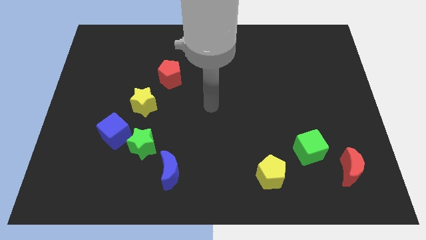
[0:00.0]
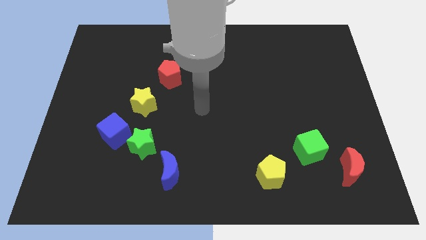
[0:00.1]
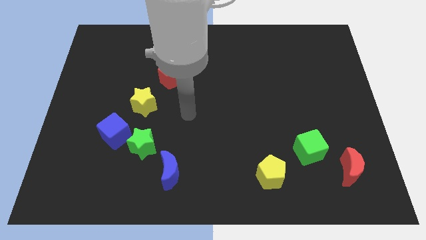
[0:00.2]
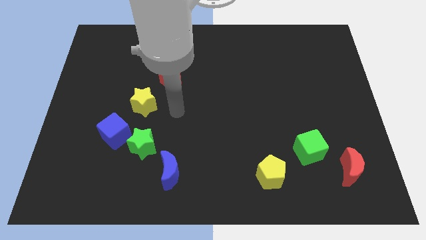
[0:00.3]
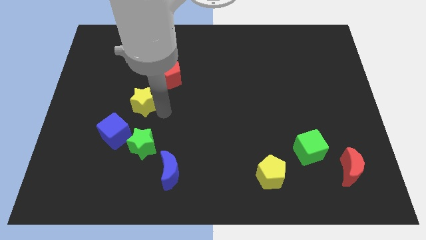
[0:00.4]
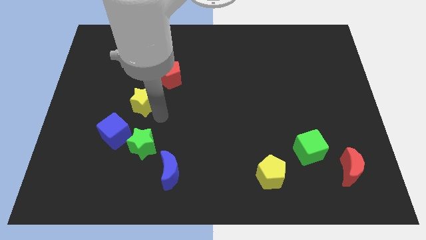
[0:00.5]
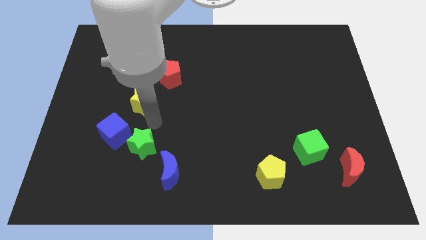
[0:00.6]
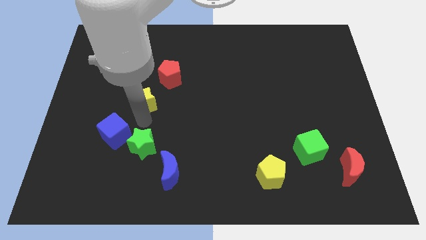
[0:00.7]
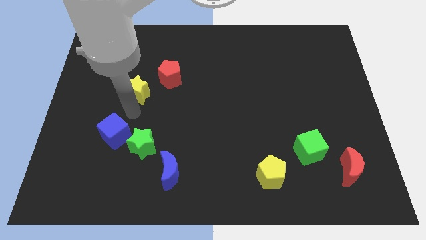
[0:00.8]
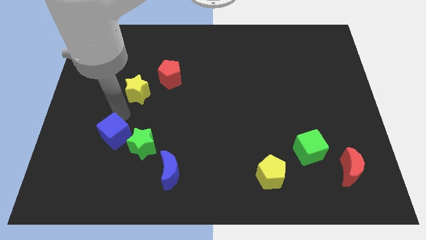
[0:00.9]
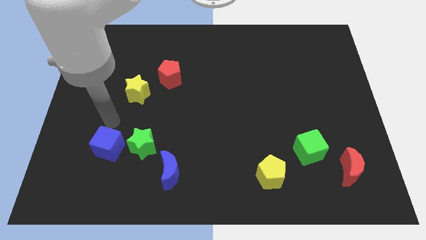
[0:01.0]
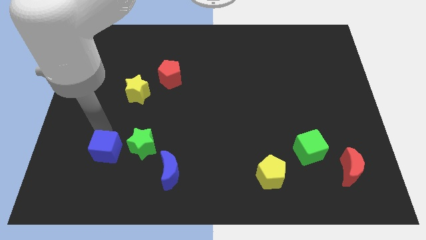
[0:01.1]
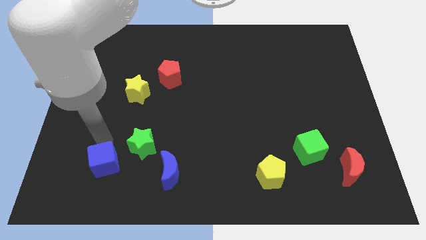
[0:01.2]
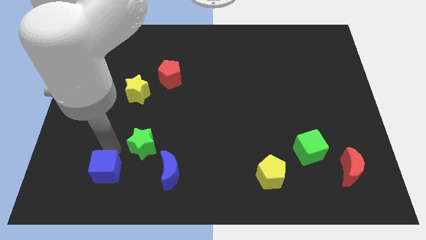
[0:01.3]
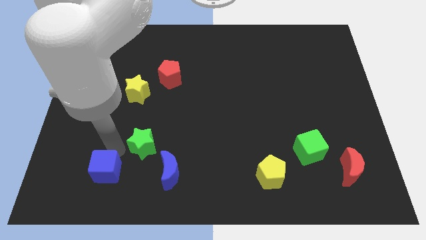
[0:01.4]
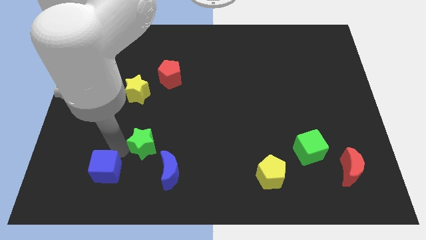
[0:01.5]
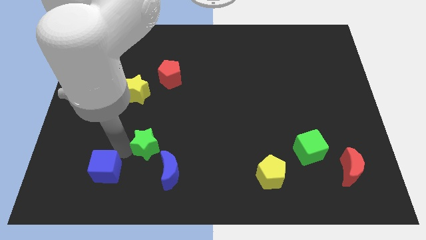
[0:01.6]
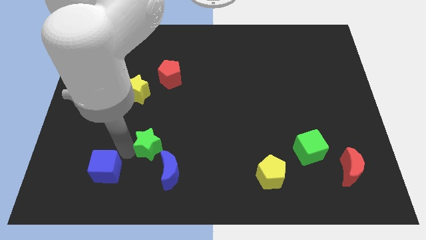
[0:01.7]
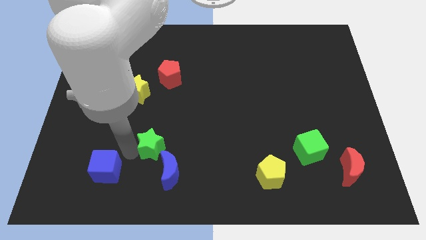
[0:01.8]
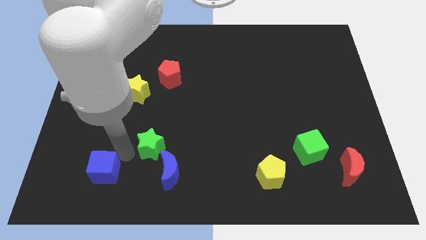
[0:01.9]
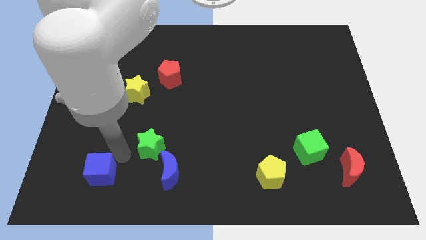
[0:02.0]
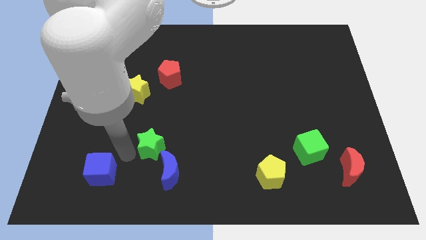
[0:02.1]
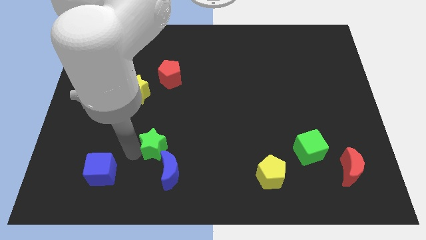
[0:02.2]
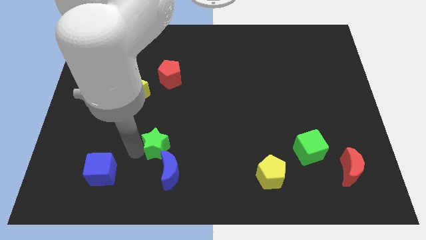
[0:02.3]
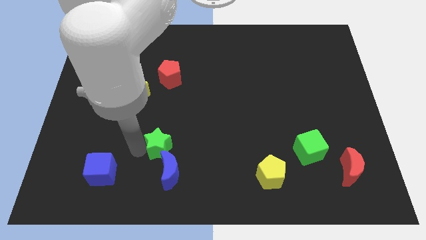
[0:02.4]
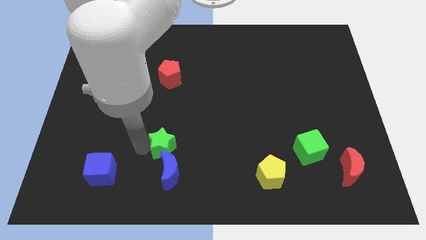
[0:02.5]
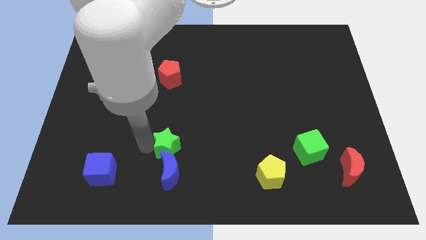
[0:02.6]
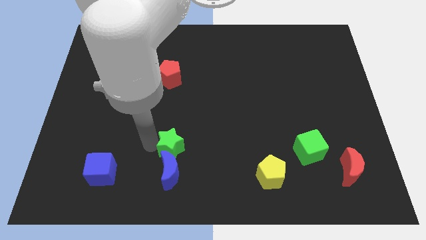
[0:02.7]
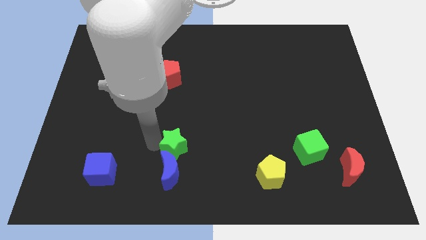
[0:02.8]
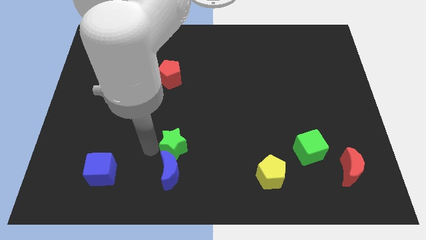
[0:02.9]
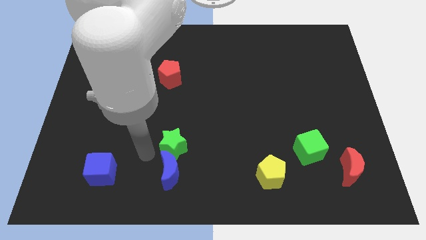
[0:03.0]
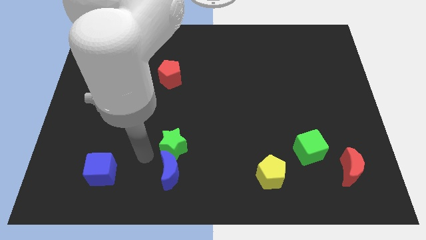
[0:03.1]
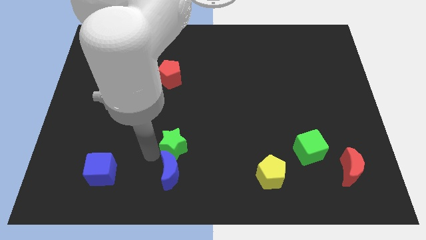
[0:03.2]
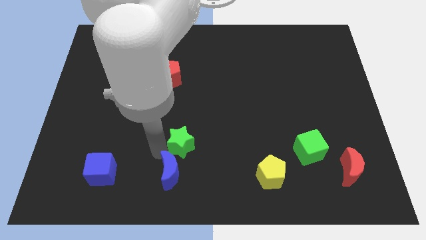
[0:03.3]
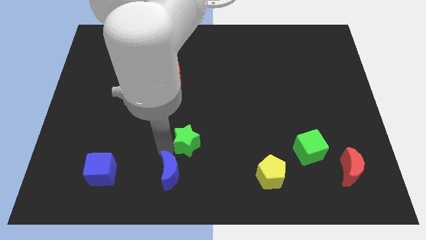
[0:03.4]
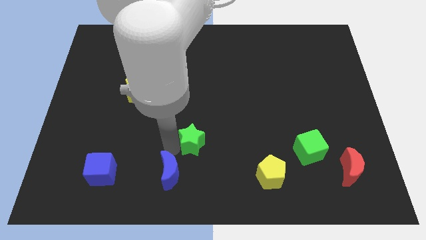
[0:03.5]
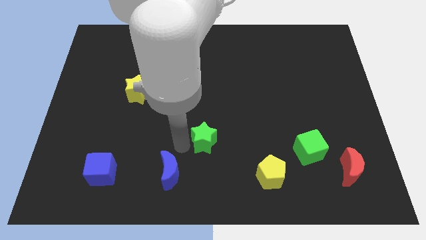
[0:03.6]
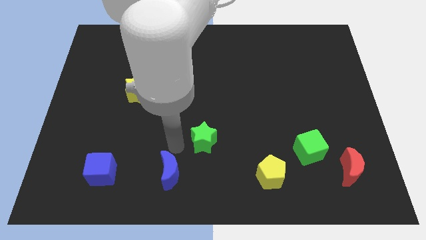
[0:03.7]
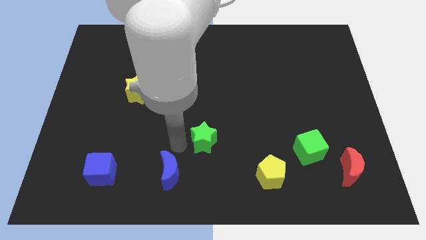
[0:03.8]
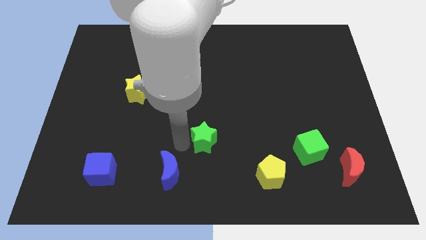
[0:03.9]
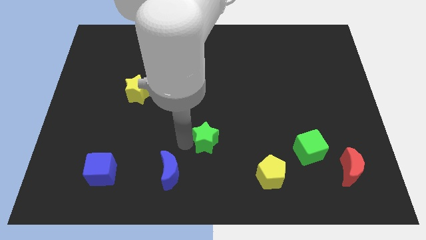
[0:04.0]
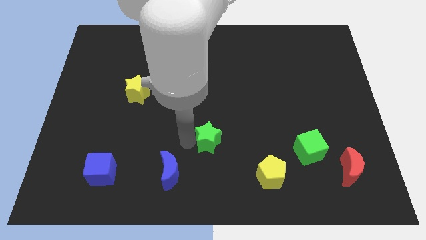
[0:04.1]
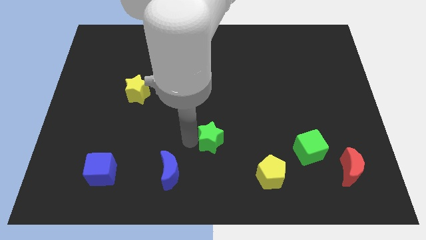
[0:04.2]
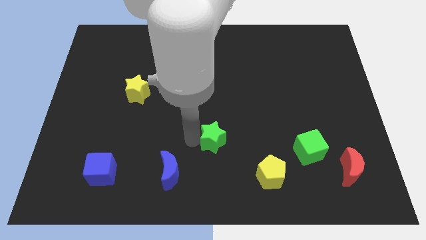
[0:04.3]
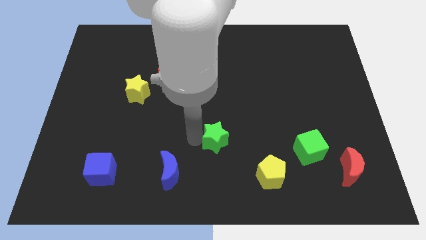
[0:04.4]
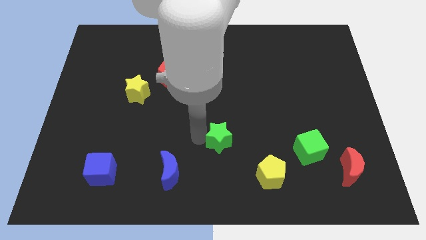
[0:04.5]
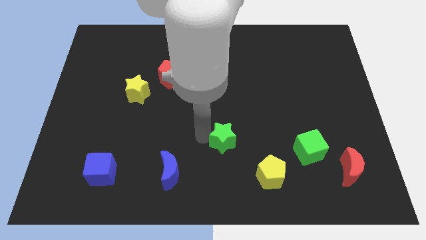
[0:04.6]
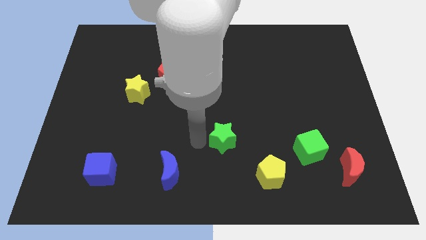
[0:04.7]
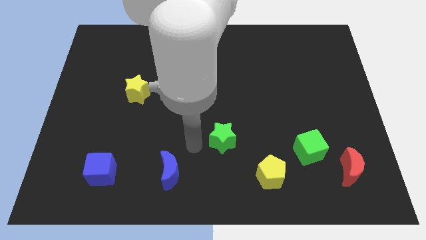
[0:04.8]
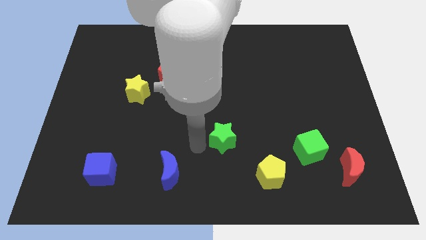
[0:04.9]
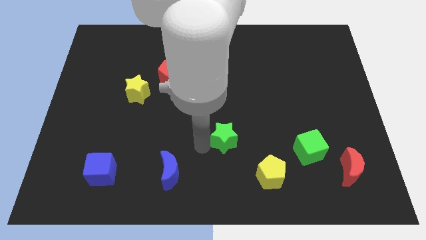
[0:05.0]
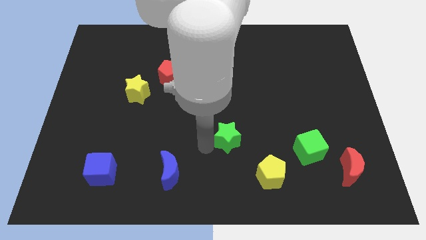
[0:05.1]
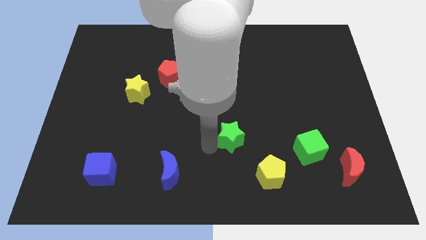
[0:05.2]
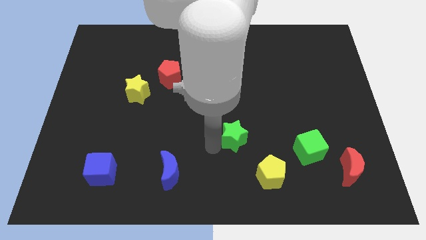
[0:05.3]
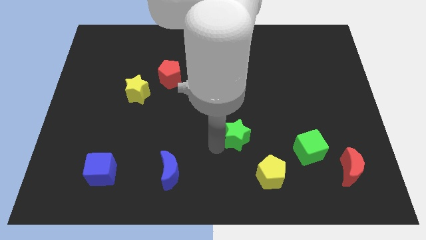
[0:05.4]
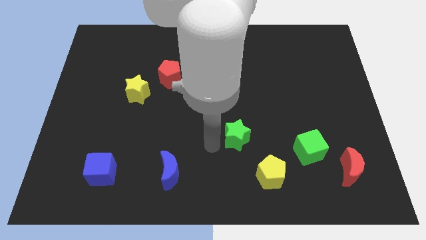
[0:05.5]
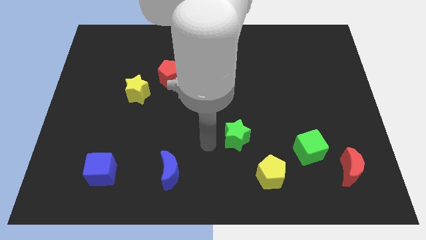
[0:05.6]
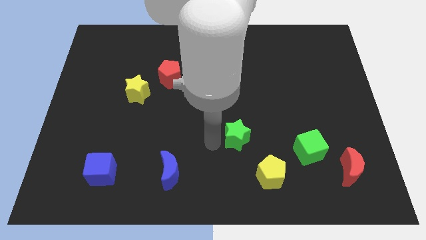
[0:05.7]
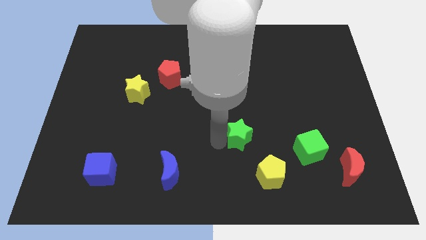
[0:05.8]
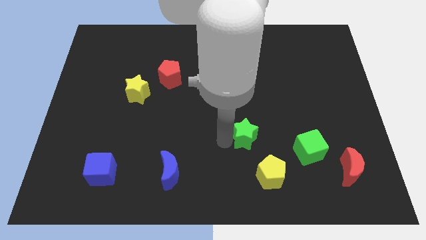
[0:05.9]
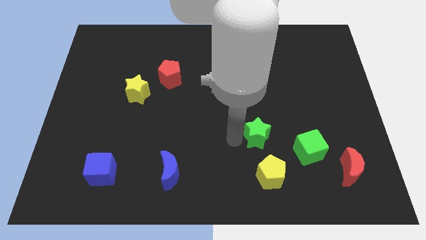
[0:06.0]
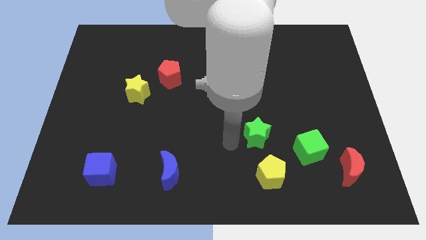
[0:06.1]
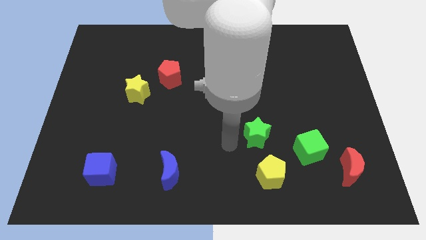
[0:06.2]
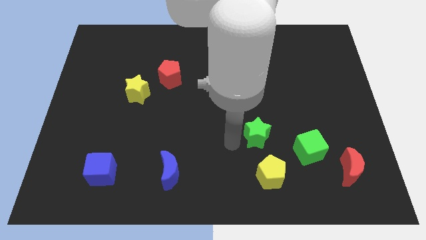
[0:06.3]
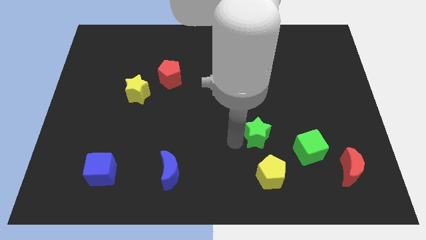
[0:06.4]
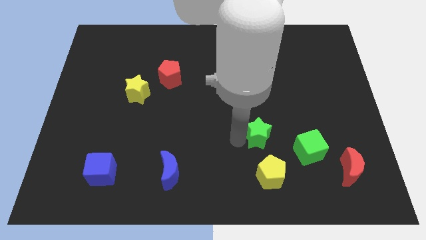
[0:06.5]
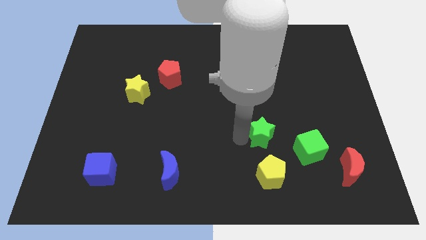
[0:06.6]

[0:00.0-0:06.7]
push the green star to the top left side of the green cube
